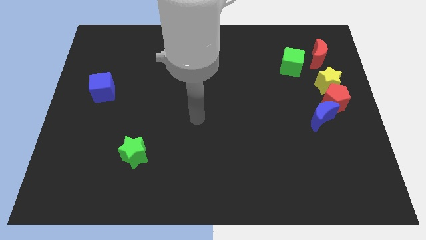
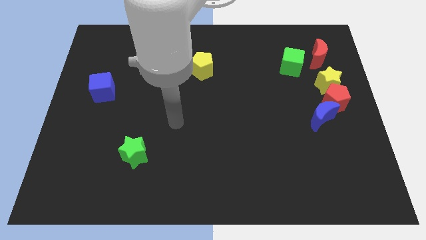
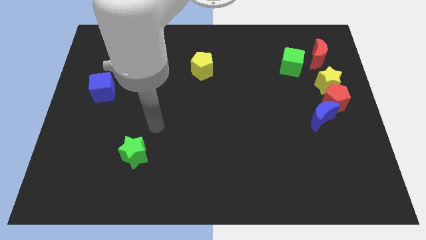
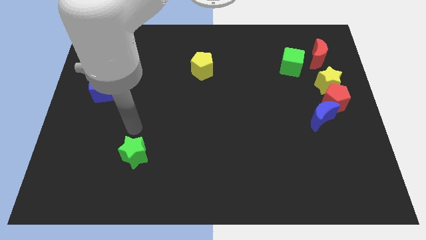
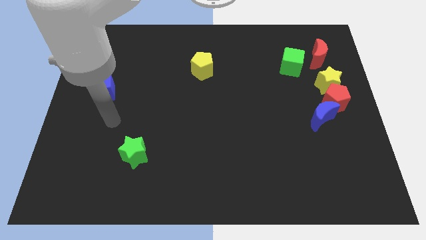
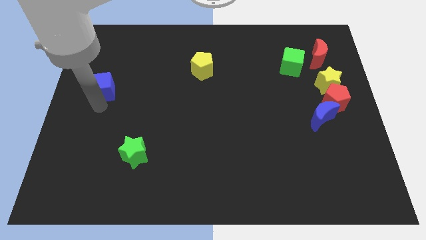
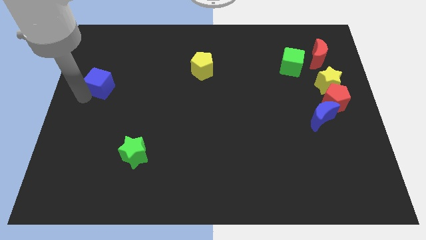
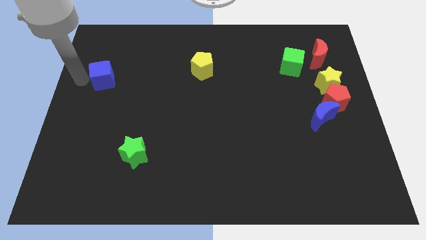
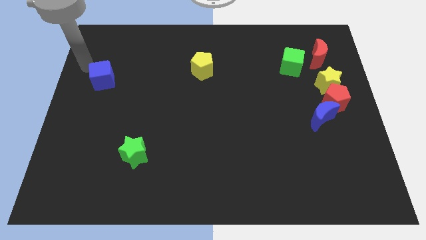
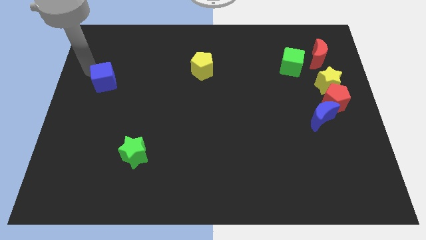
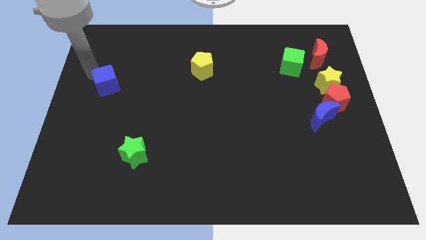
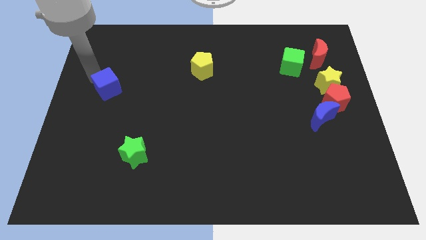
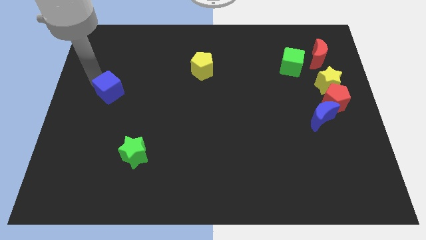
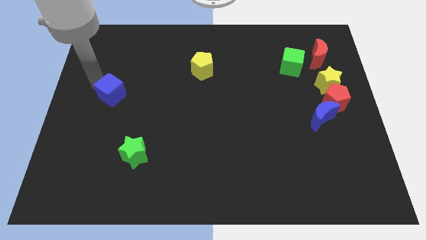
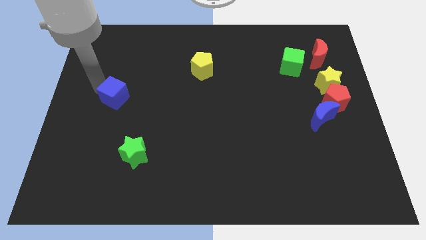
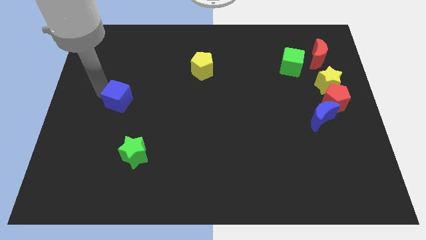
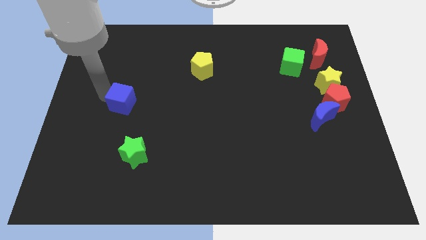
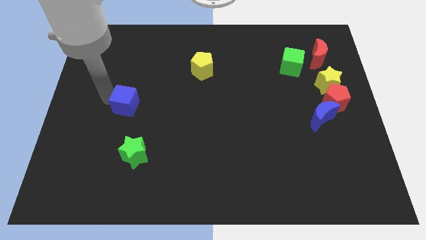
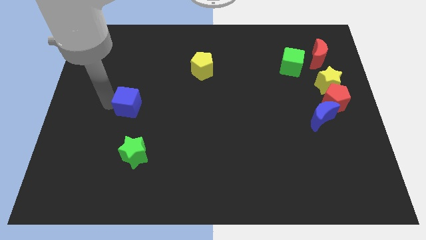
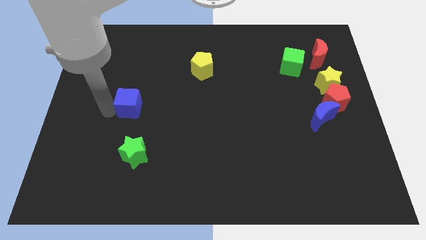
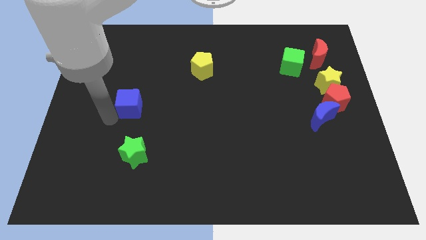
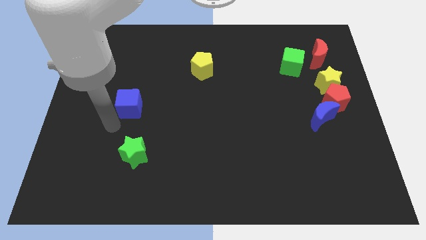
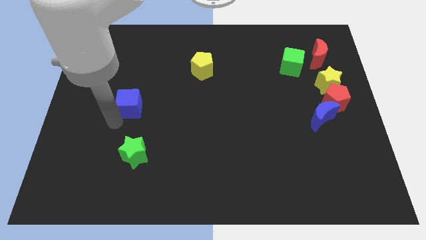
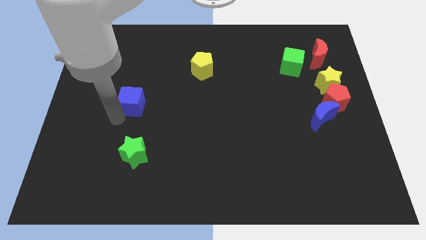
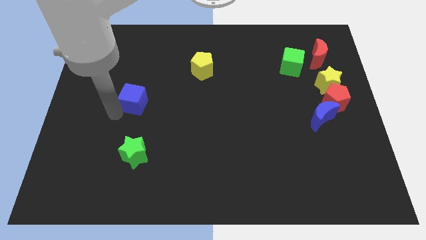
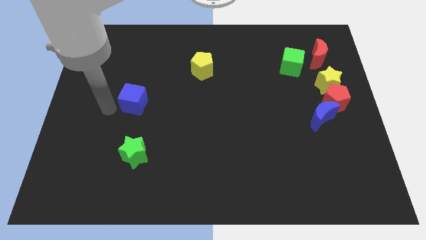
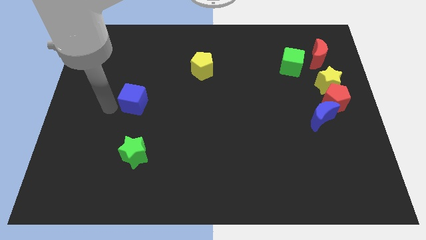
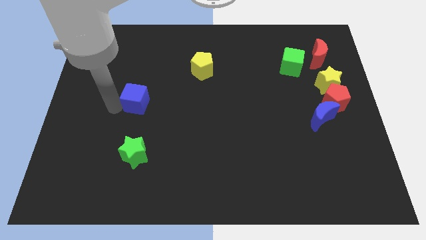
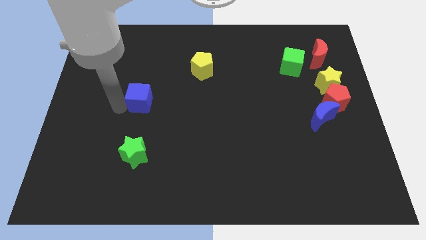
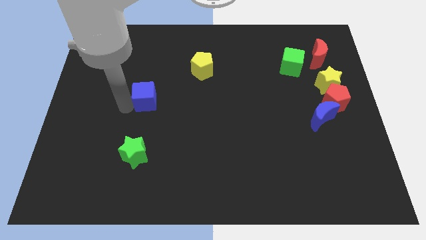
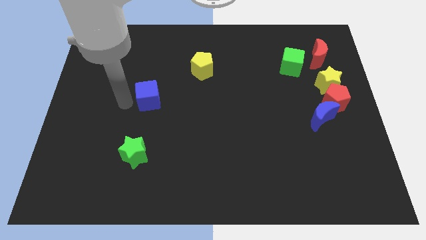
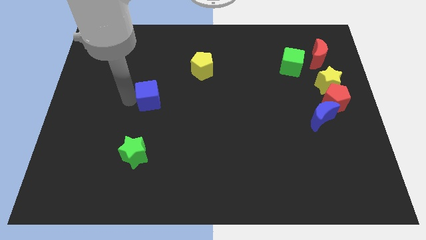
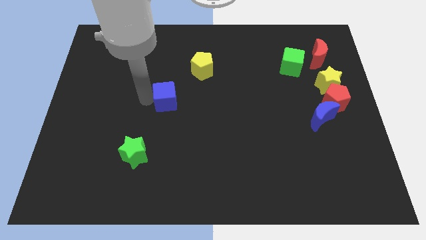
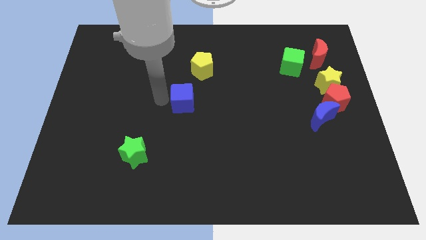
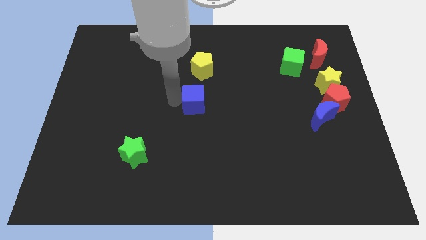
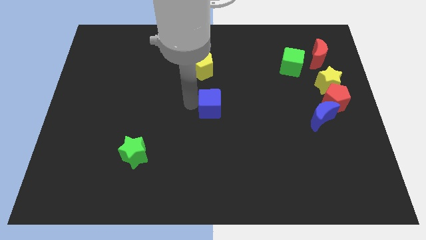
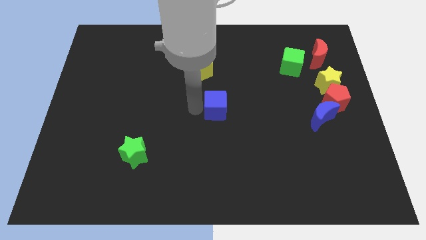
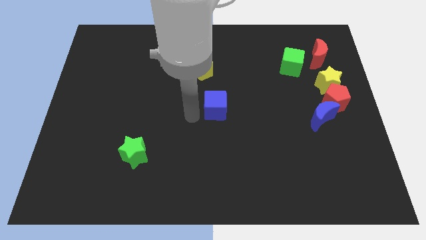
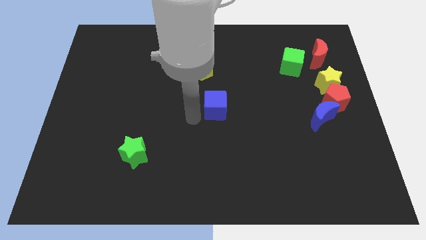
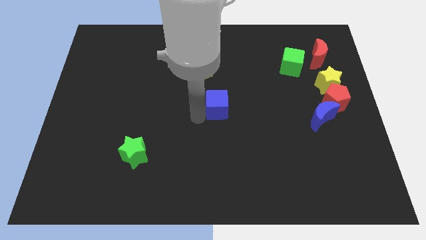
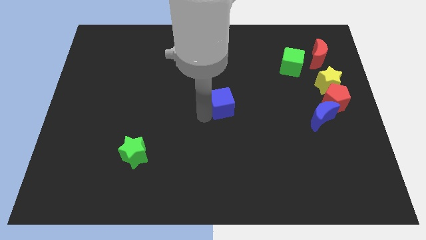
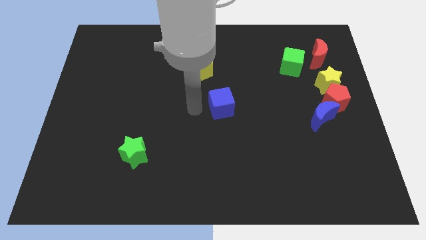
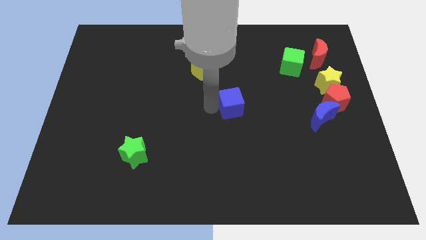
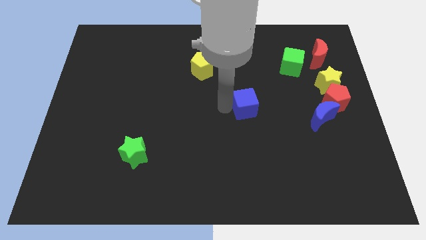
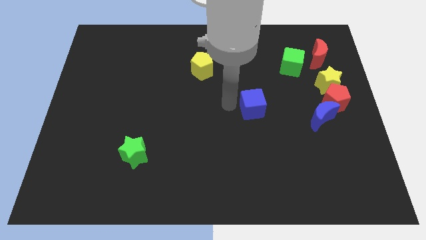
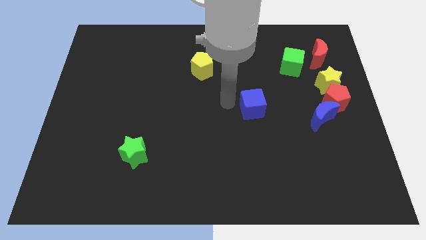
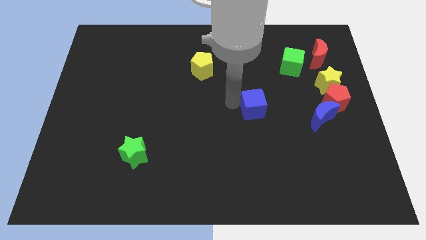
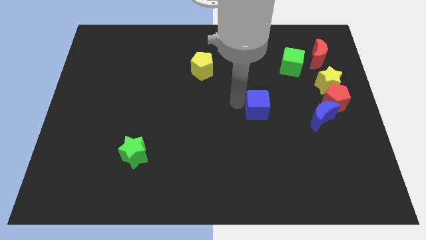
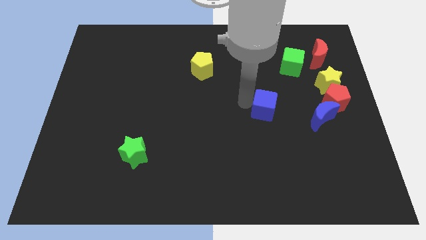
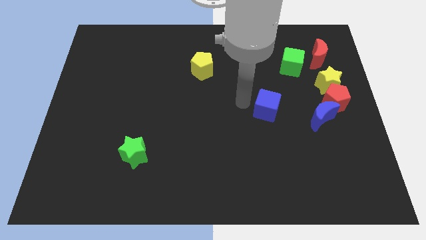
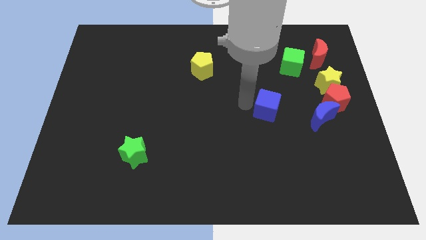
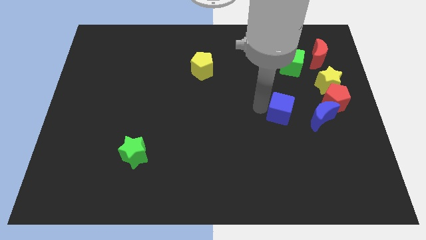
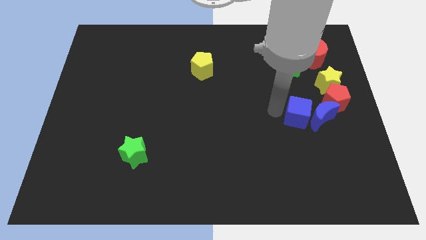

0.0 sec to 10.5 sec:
put the blue cube towards the blue moon

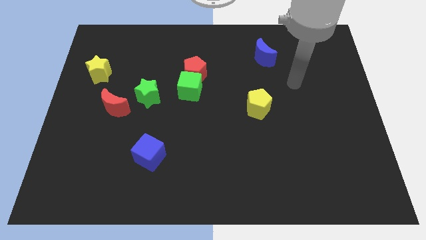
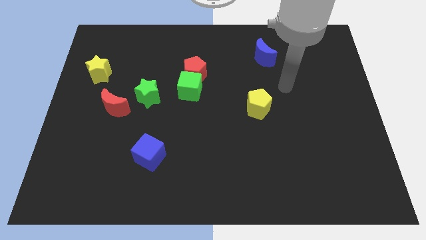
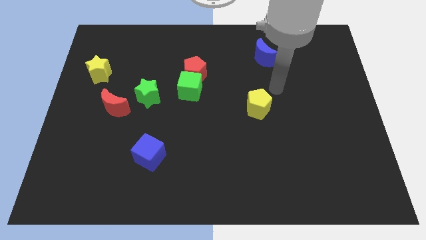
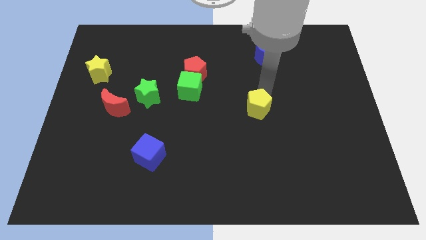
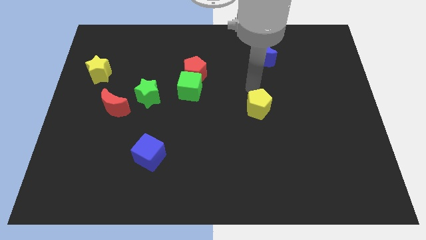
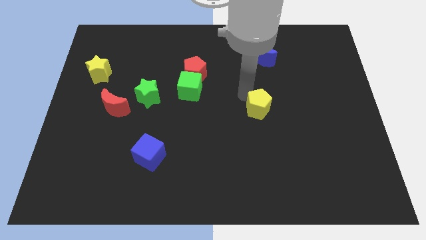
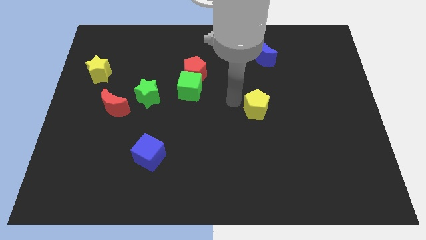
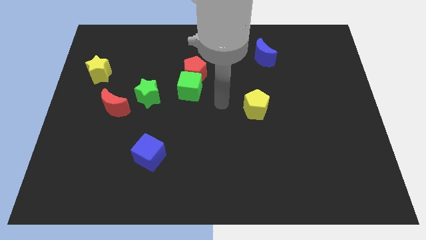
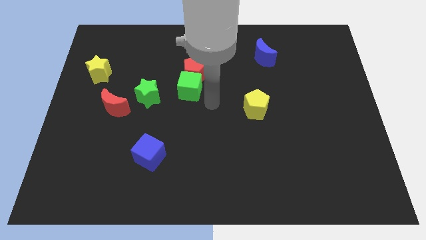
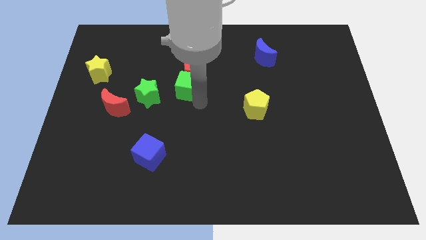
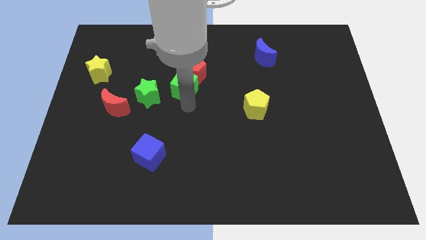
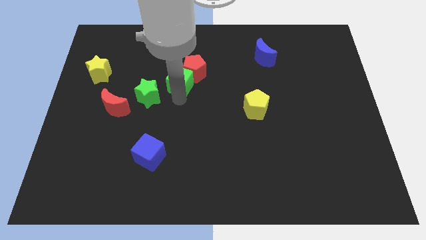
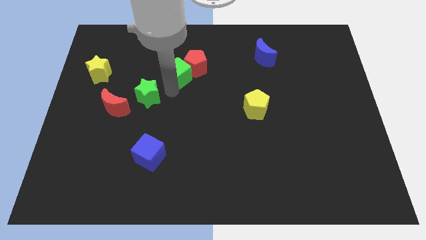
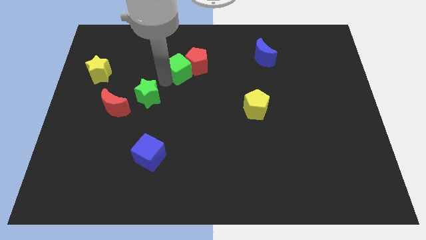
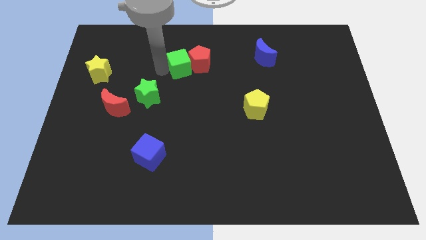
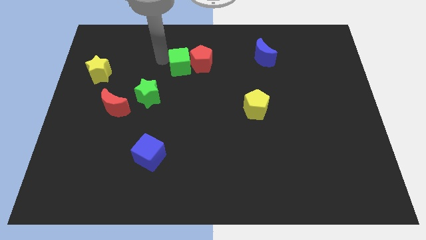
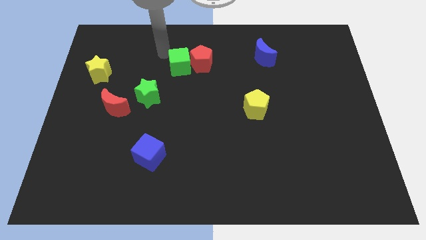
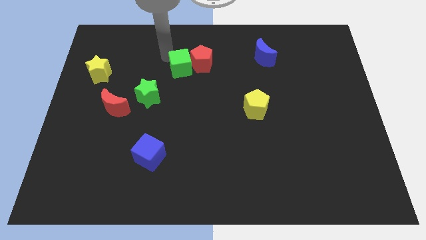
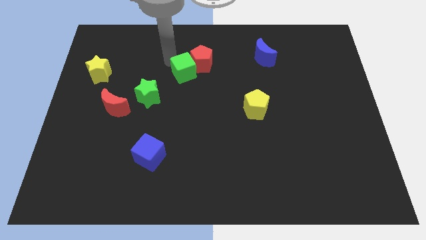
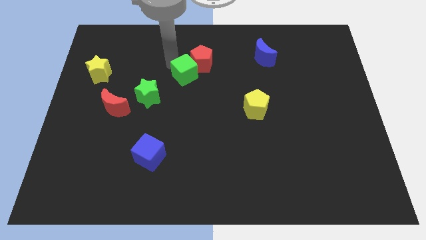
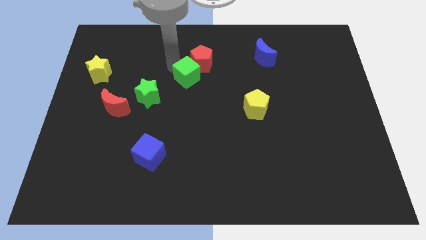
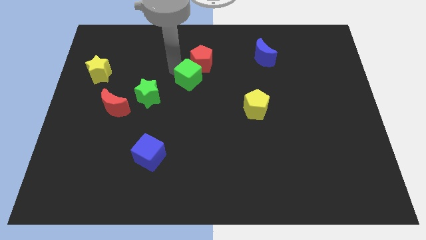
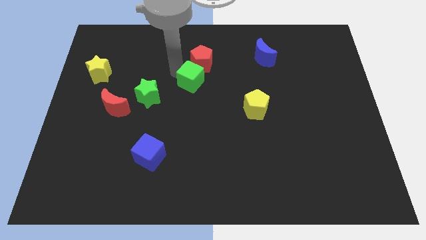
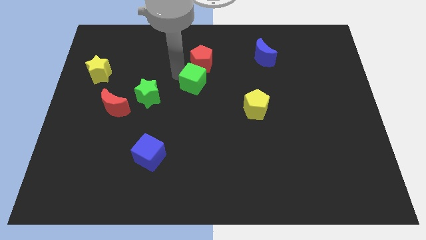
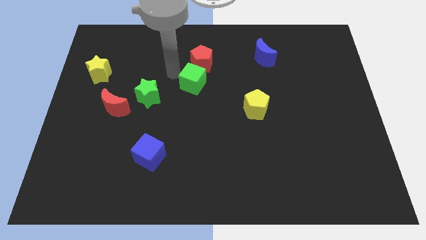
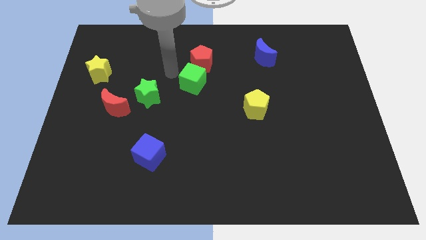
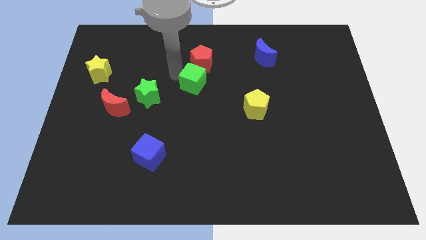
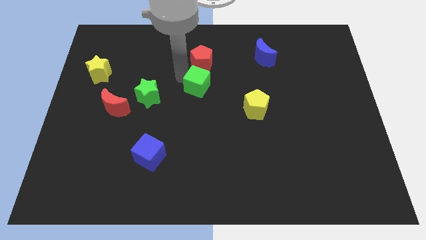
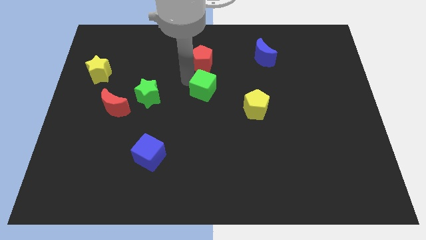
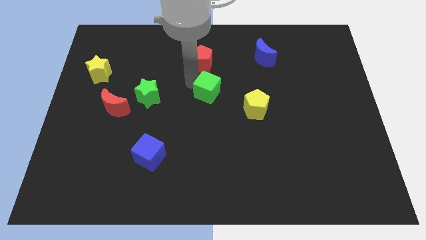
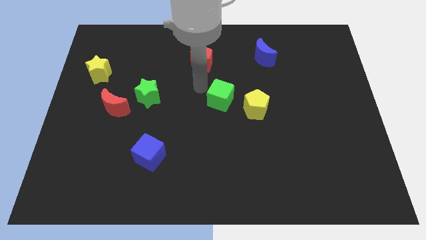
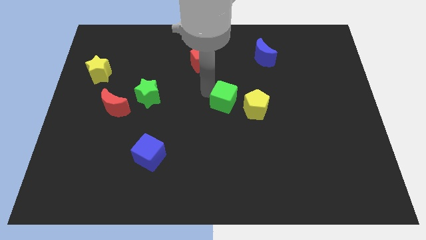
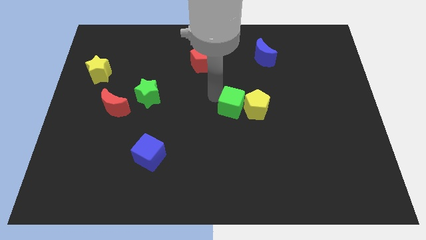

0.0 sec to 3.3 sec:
slide the green cube close to the yellow pentagon
